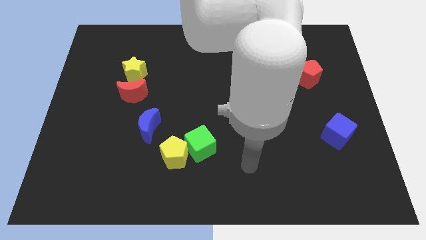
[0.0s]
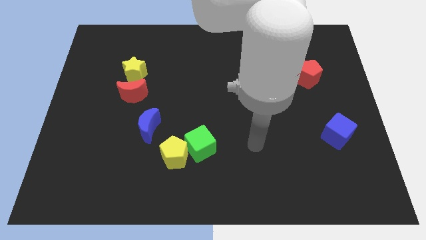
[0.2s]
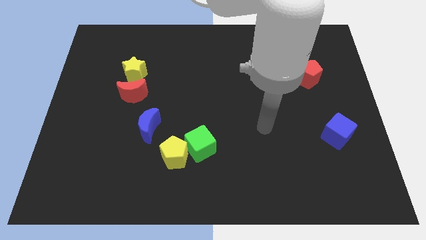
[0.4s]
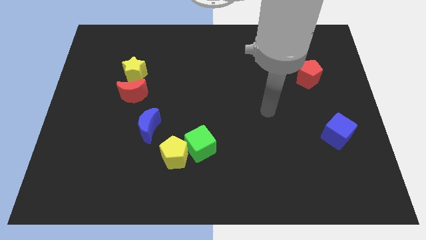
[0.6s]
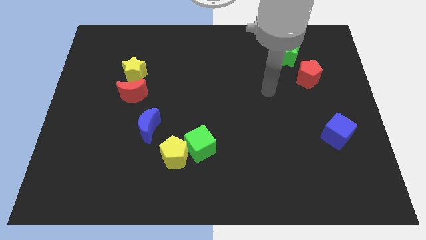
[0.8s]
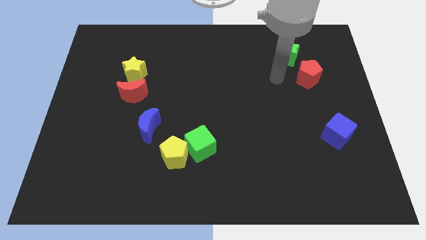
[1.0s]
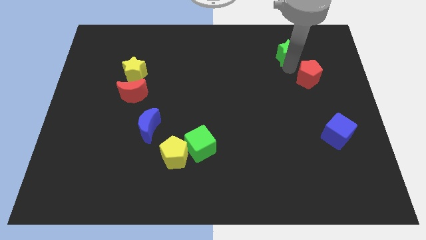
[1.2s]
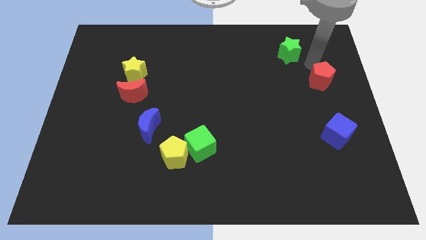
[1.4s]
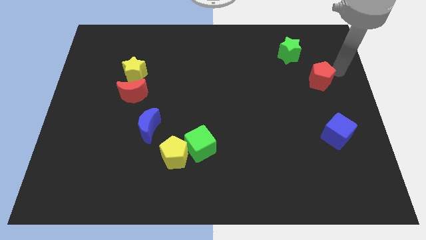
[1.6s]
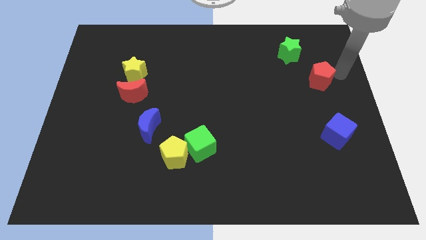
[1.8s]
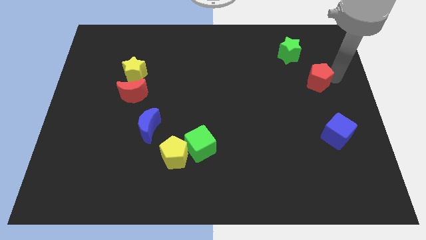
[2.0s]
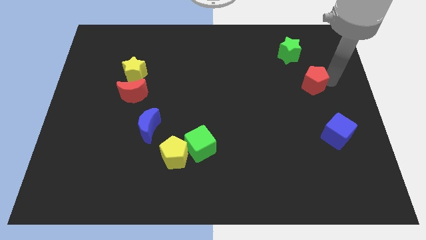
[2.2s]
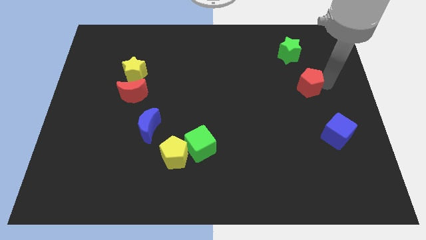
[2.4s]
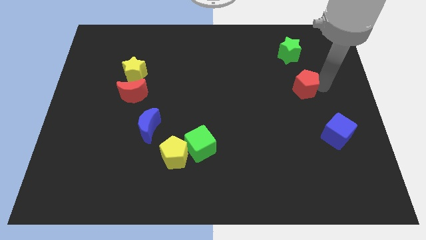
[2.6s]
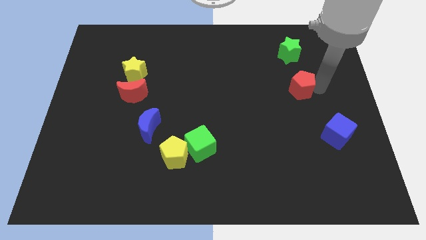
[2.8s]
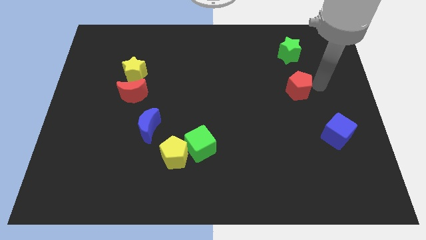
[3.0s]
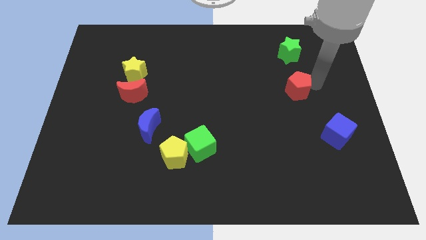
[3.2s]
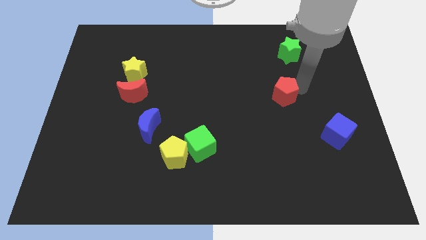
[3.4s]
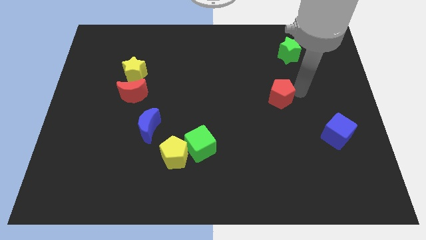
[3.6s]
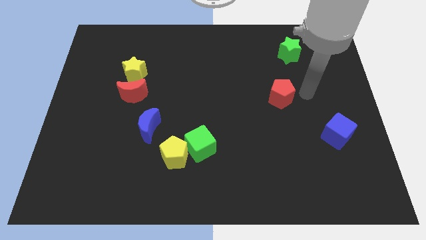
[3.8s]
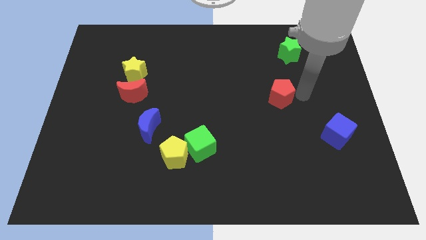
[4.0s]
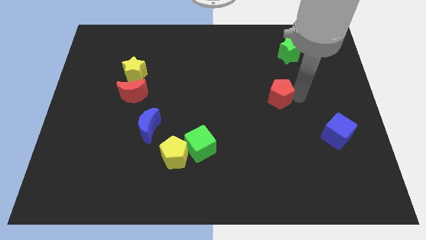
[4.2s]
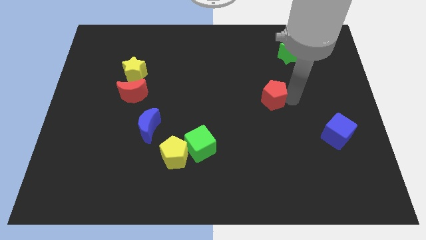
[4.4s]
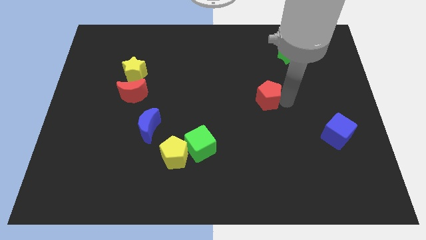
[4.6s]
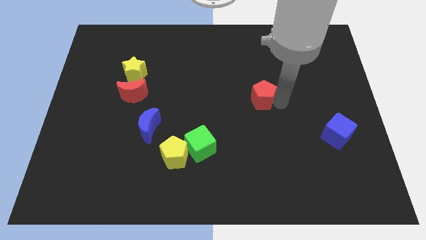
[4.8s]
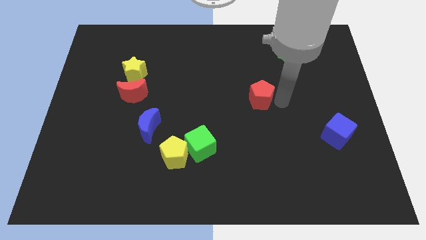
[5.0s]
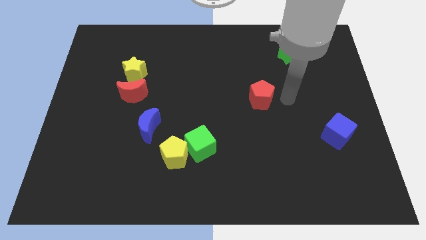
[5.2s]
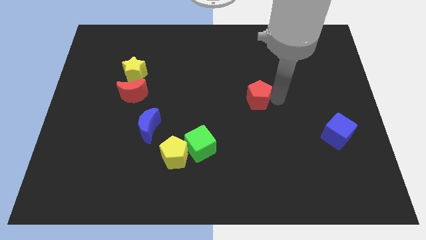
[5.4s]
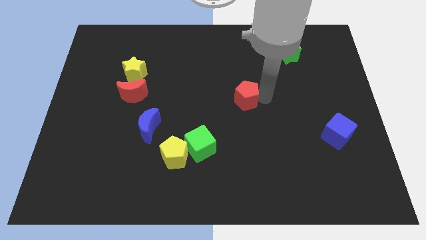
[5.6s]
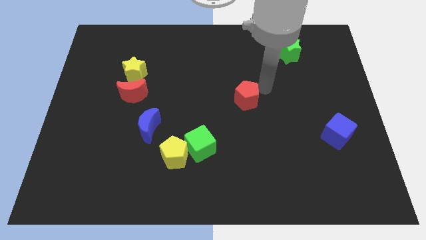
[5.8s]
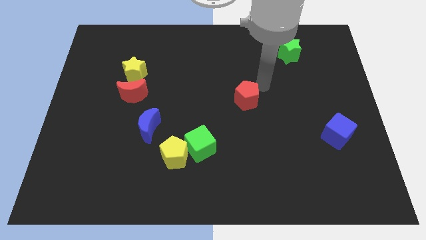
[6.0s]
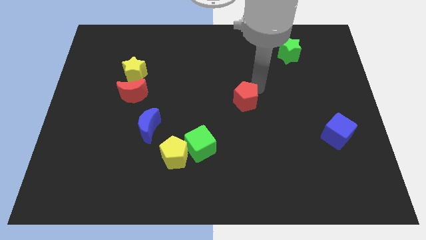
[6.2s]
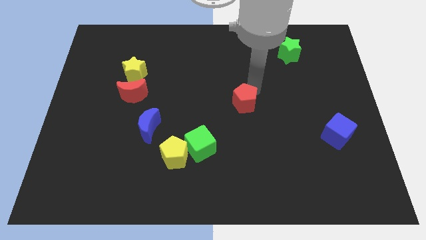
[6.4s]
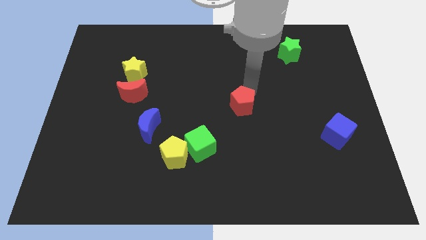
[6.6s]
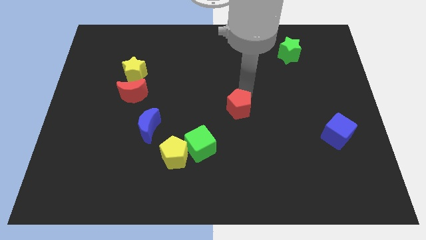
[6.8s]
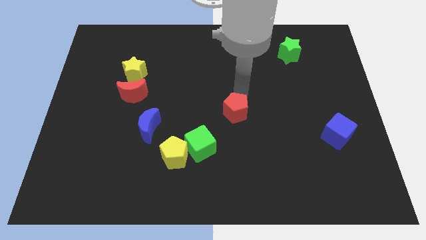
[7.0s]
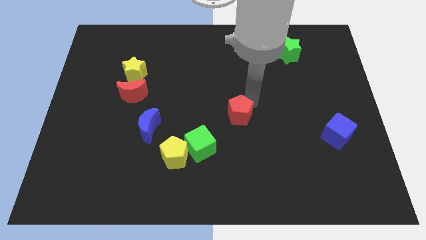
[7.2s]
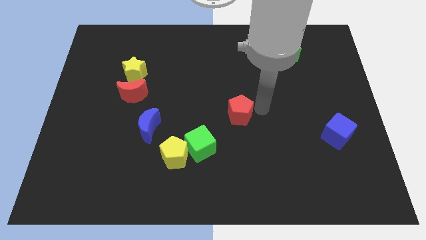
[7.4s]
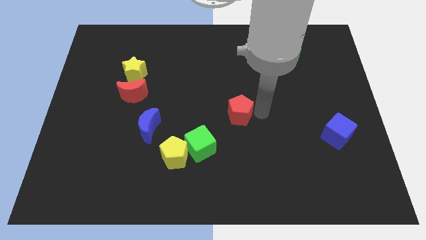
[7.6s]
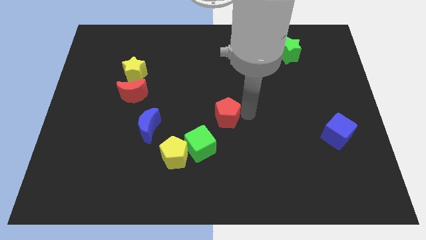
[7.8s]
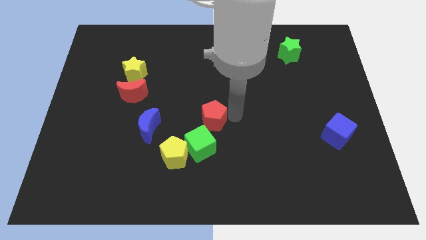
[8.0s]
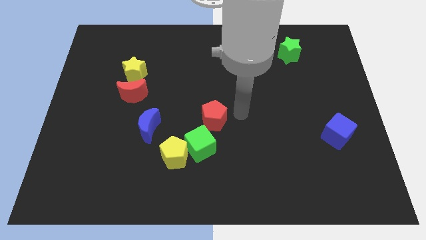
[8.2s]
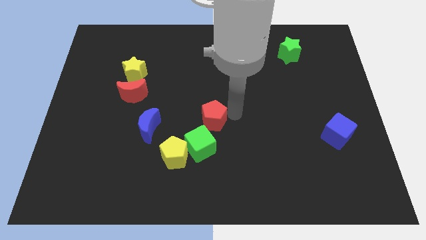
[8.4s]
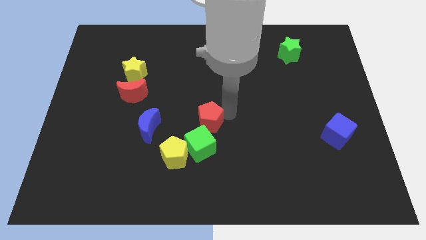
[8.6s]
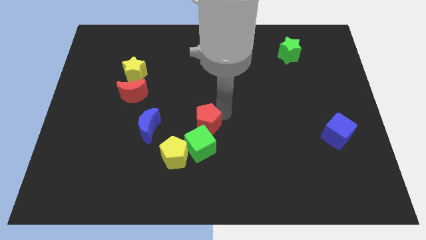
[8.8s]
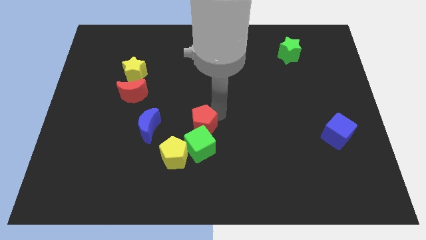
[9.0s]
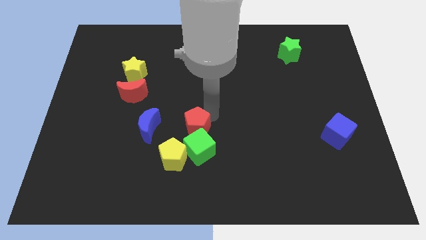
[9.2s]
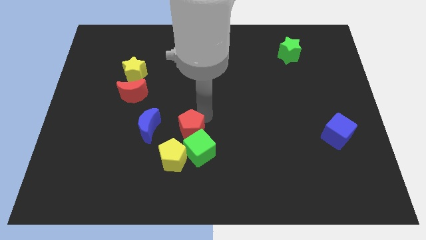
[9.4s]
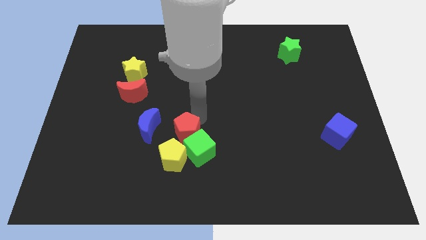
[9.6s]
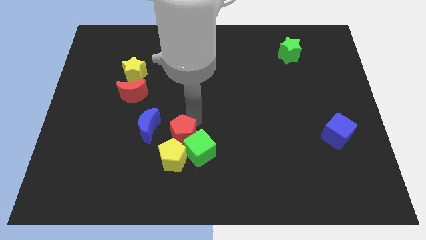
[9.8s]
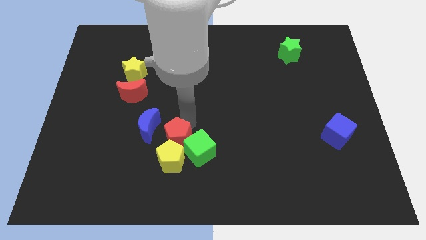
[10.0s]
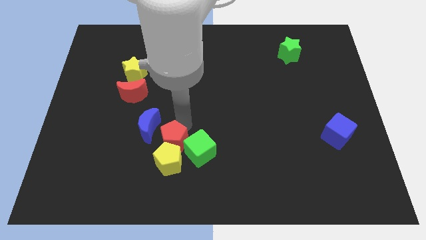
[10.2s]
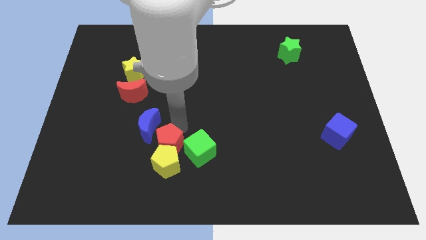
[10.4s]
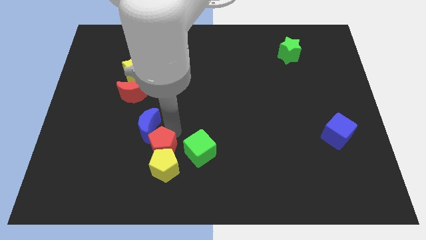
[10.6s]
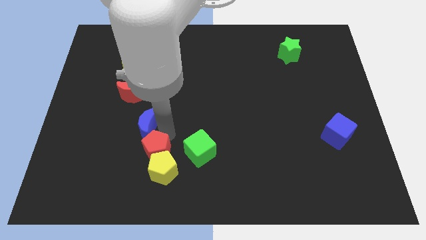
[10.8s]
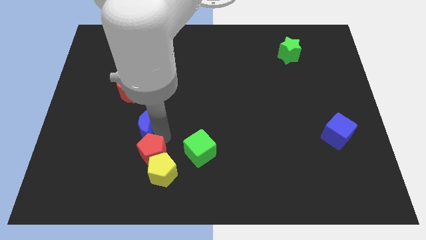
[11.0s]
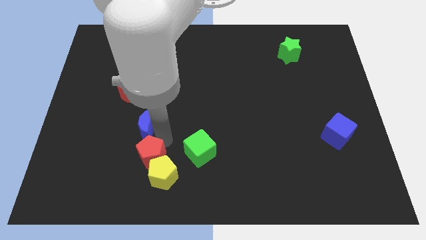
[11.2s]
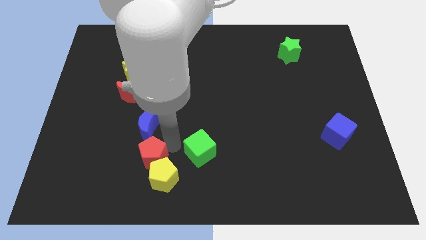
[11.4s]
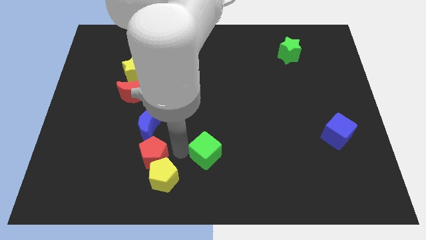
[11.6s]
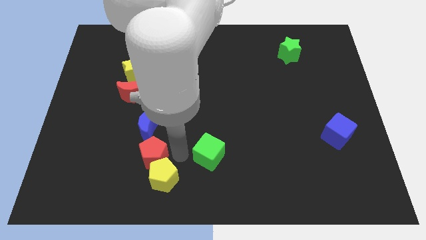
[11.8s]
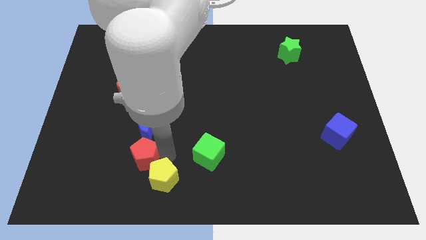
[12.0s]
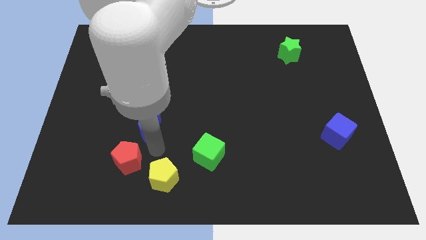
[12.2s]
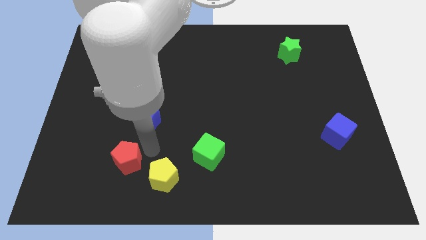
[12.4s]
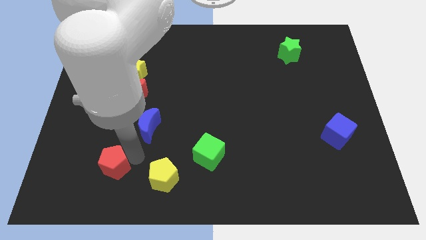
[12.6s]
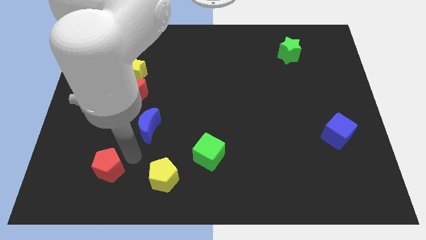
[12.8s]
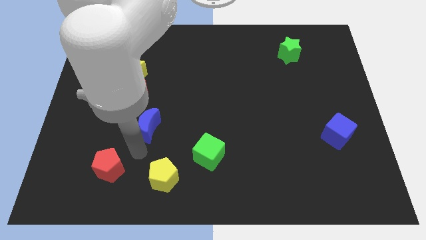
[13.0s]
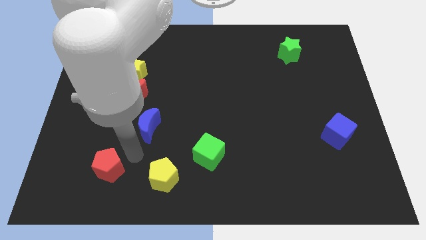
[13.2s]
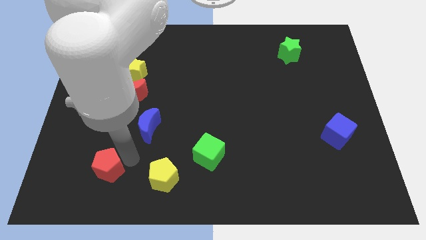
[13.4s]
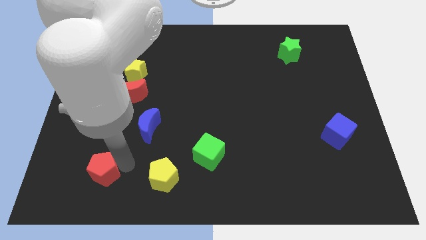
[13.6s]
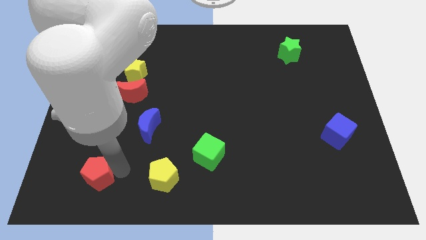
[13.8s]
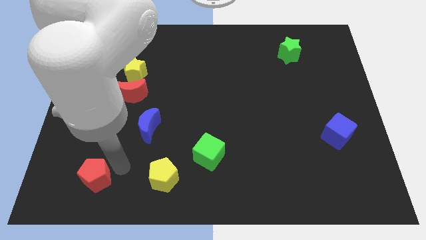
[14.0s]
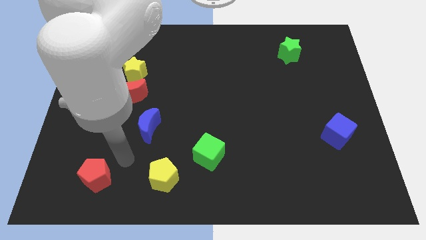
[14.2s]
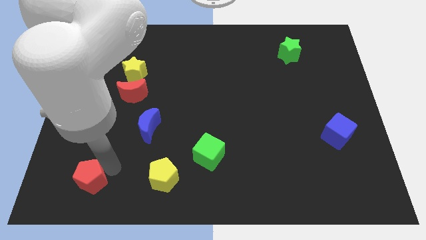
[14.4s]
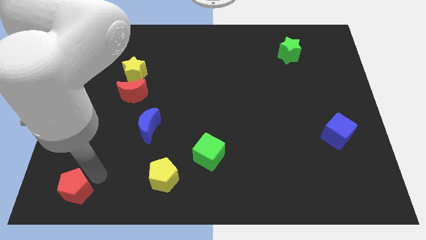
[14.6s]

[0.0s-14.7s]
put the red pentagon to the bottom left corner
